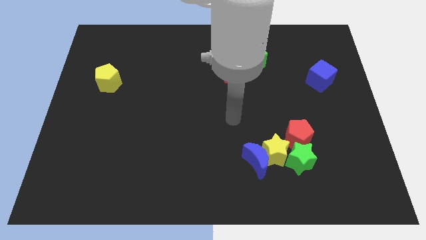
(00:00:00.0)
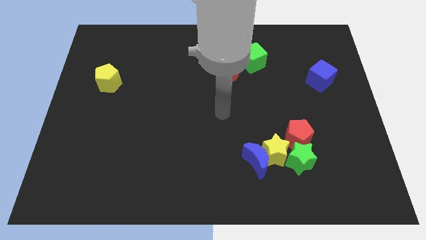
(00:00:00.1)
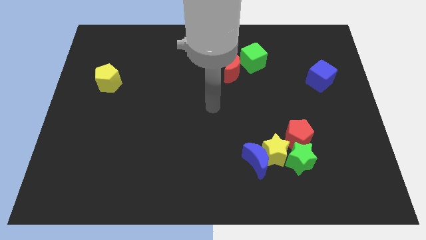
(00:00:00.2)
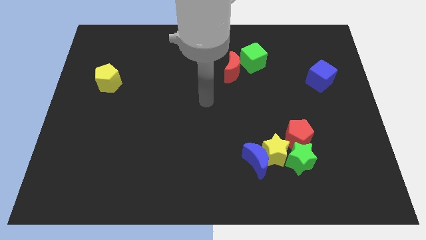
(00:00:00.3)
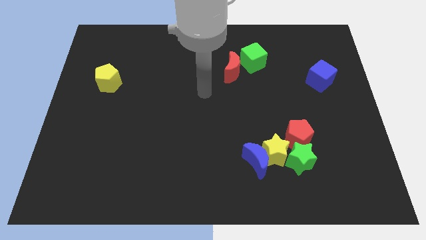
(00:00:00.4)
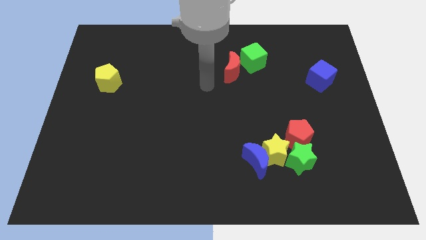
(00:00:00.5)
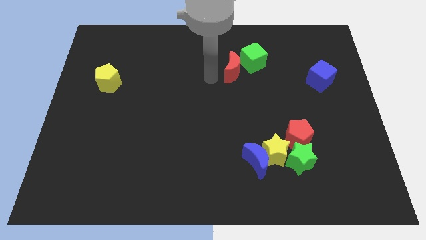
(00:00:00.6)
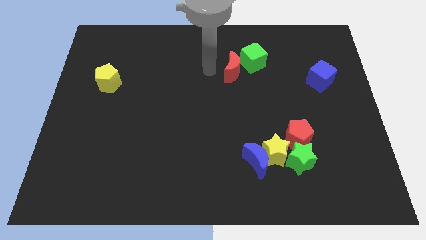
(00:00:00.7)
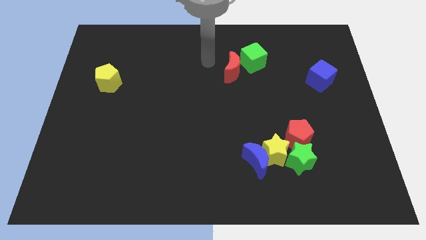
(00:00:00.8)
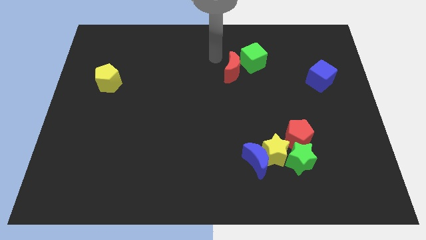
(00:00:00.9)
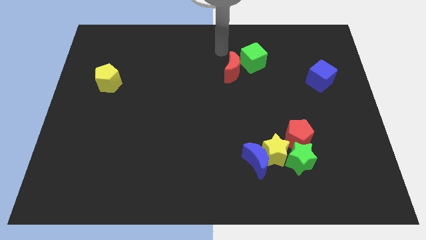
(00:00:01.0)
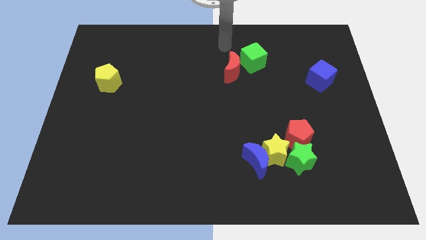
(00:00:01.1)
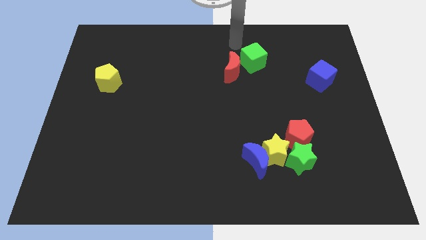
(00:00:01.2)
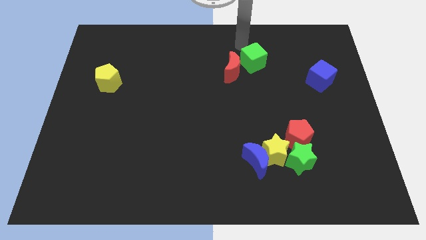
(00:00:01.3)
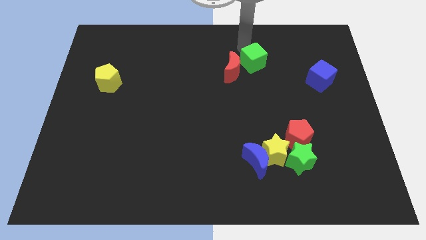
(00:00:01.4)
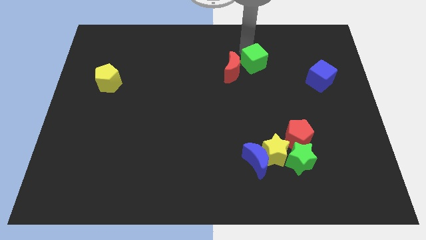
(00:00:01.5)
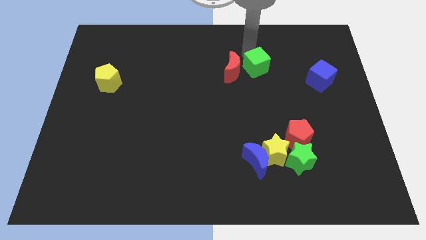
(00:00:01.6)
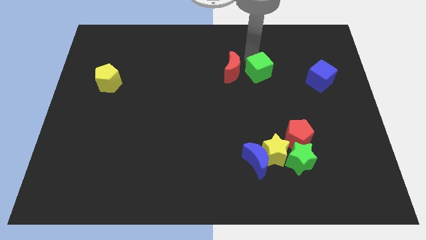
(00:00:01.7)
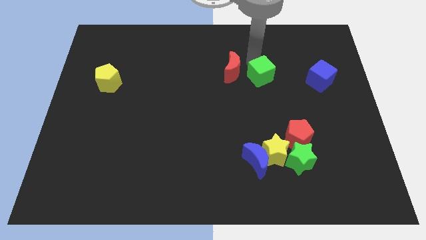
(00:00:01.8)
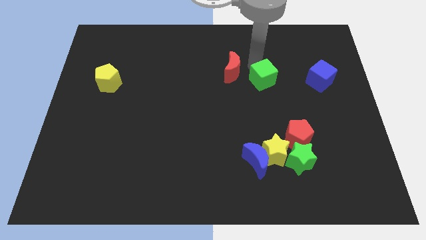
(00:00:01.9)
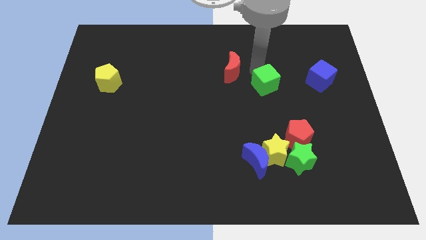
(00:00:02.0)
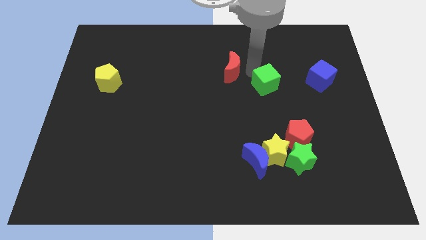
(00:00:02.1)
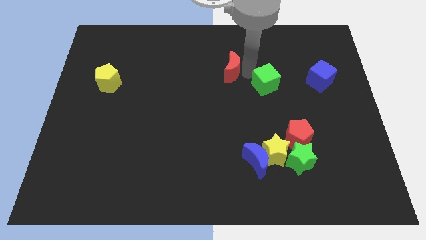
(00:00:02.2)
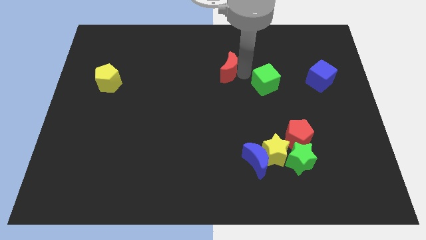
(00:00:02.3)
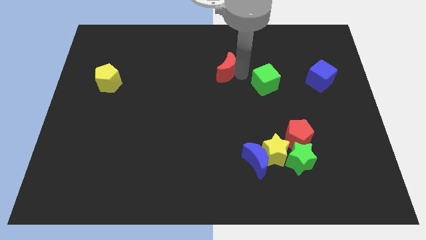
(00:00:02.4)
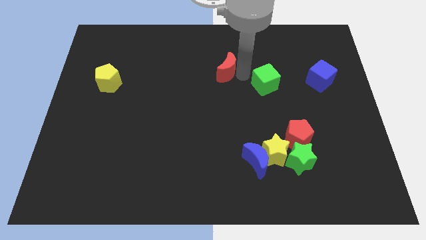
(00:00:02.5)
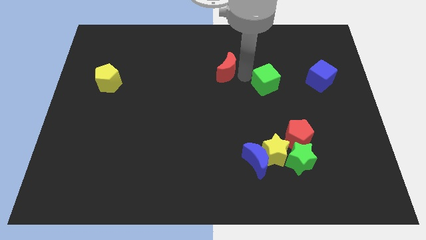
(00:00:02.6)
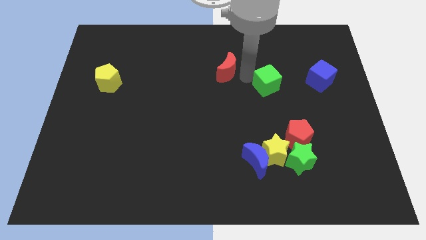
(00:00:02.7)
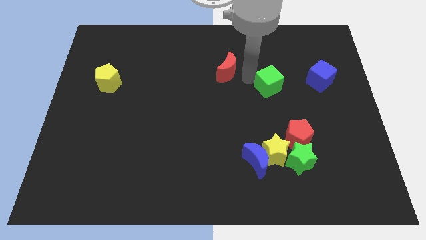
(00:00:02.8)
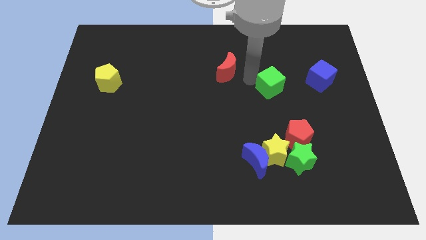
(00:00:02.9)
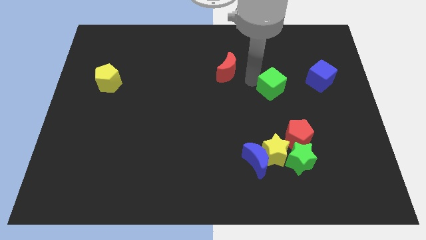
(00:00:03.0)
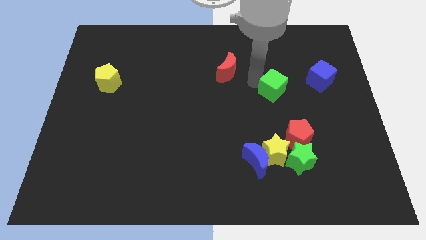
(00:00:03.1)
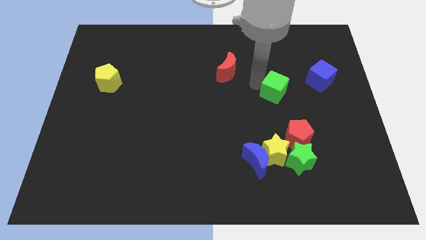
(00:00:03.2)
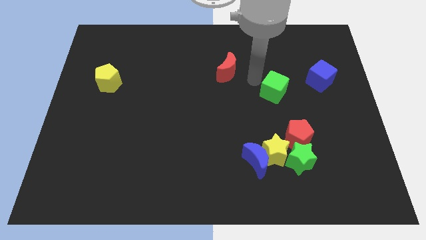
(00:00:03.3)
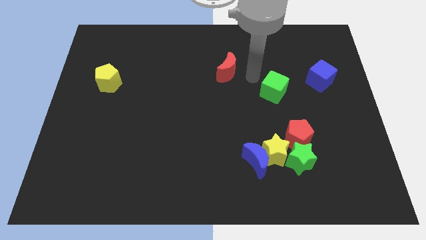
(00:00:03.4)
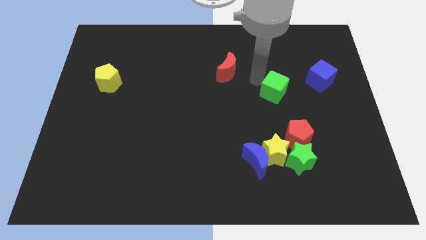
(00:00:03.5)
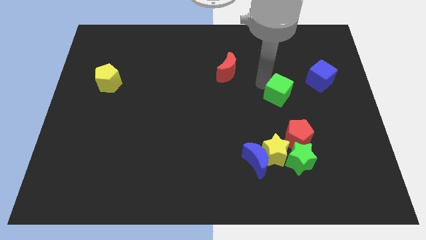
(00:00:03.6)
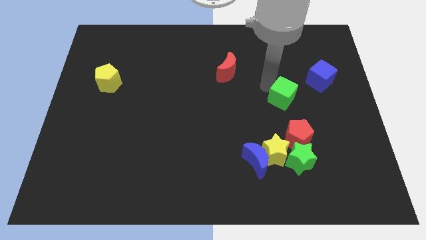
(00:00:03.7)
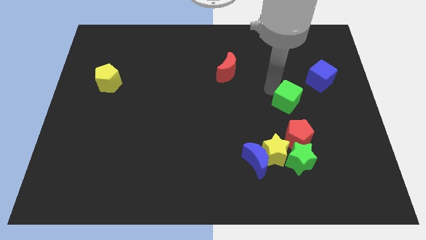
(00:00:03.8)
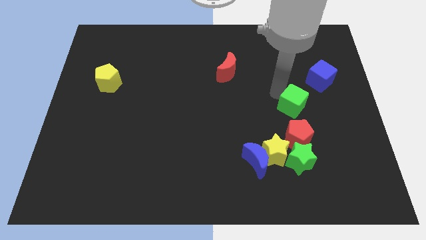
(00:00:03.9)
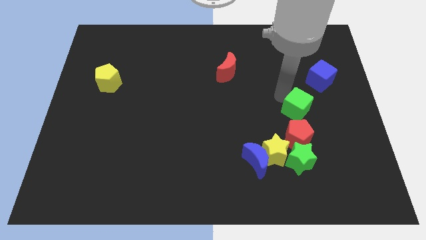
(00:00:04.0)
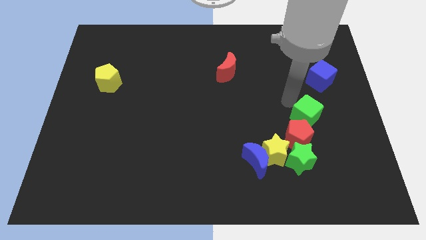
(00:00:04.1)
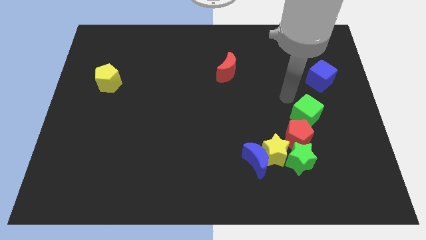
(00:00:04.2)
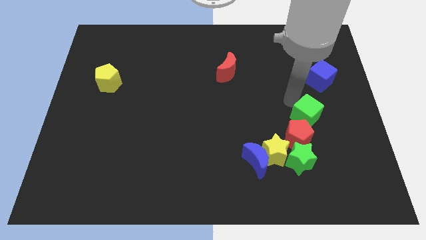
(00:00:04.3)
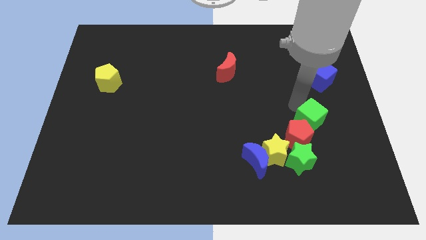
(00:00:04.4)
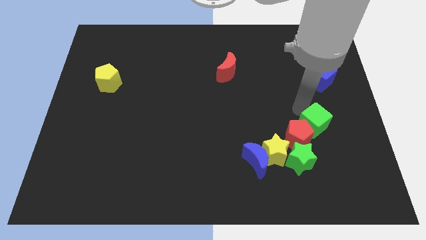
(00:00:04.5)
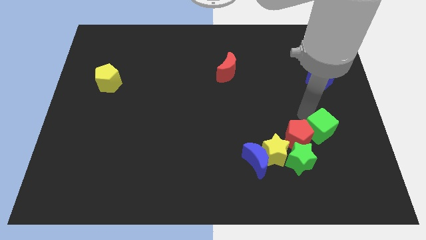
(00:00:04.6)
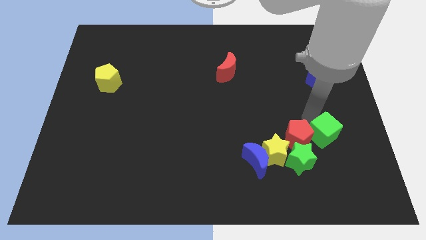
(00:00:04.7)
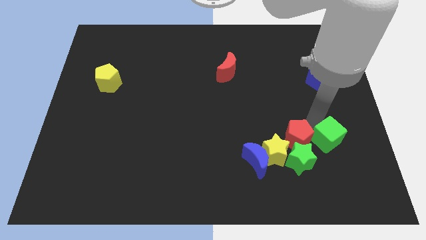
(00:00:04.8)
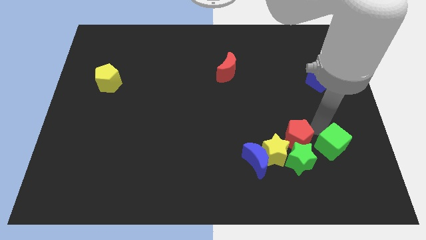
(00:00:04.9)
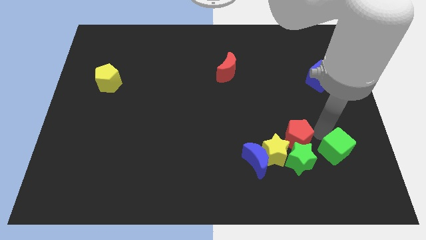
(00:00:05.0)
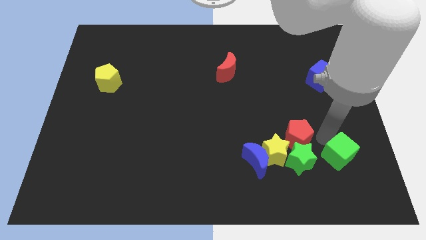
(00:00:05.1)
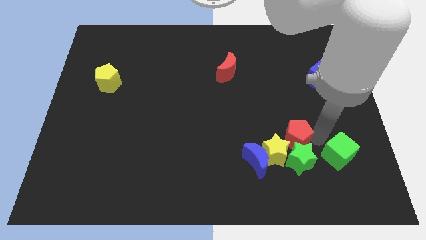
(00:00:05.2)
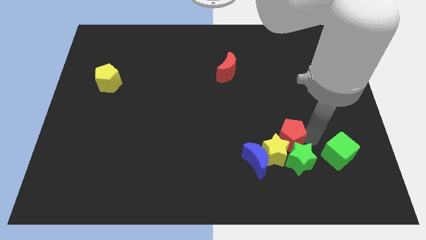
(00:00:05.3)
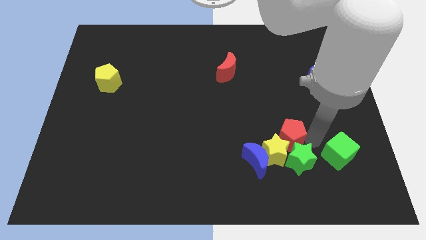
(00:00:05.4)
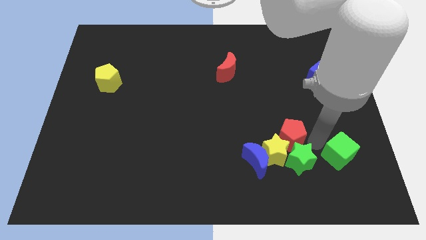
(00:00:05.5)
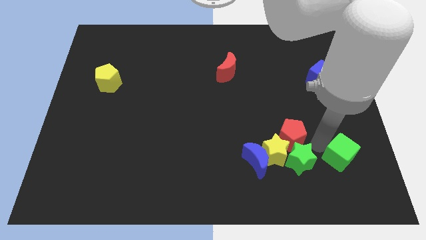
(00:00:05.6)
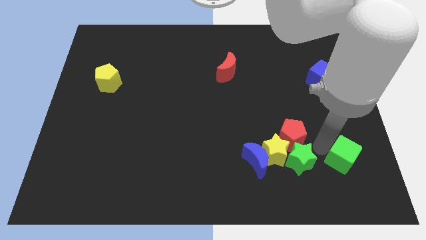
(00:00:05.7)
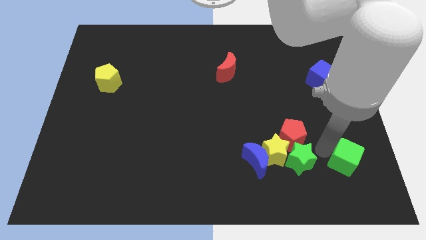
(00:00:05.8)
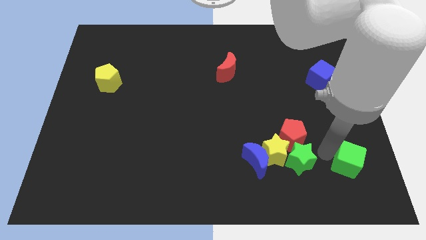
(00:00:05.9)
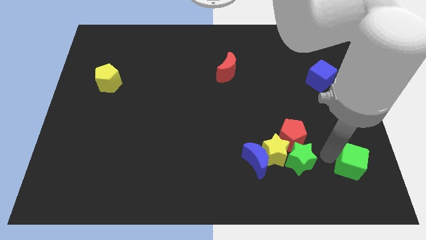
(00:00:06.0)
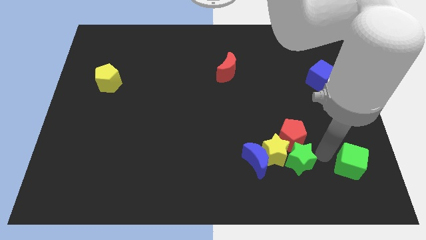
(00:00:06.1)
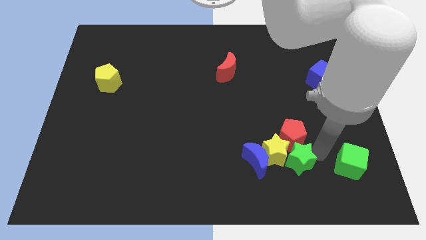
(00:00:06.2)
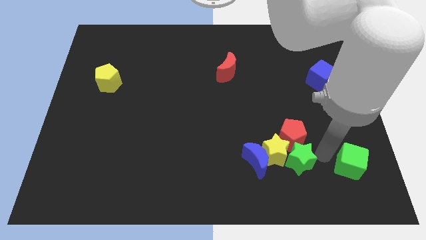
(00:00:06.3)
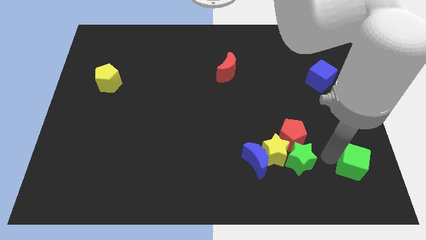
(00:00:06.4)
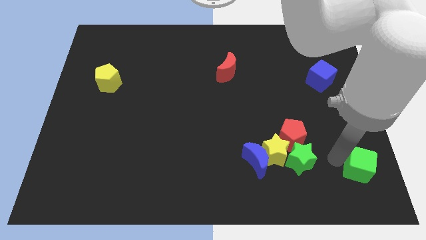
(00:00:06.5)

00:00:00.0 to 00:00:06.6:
move the green cube to the bottom right
